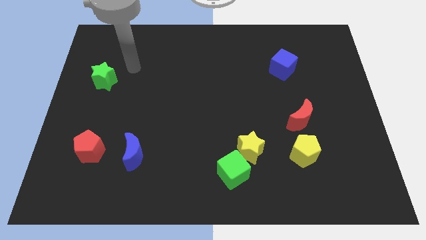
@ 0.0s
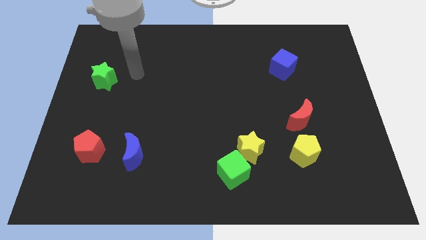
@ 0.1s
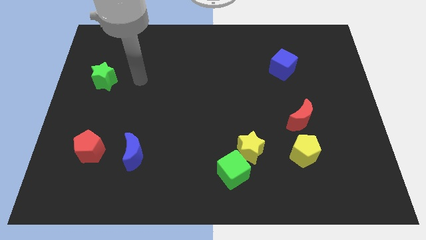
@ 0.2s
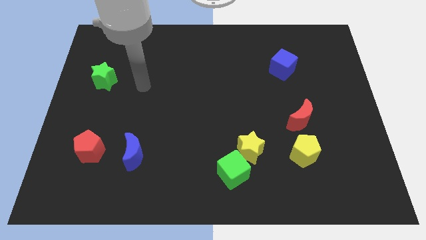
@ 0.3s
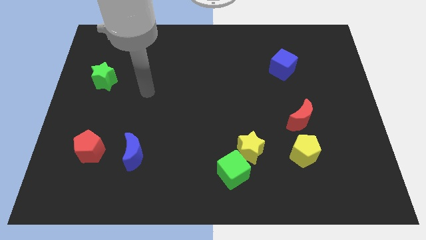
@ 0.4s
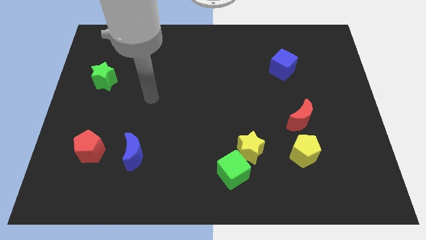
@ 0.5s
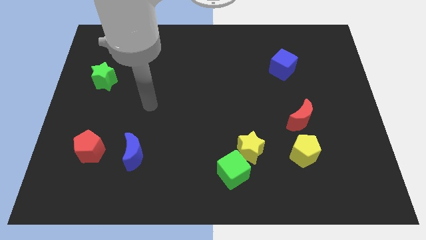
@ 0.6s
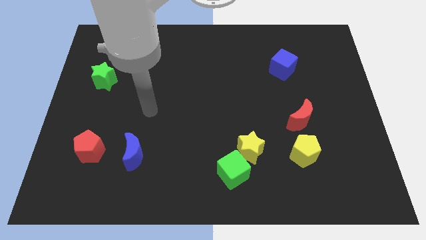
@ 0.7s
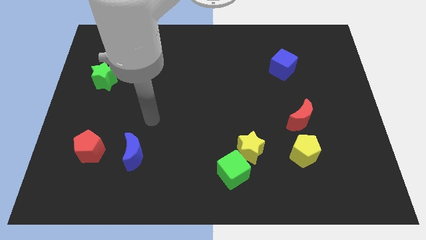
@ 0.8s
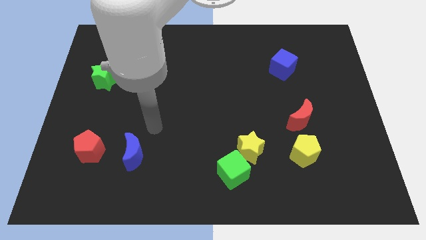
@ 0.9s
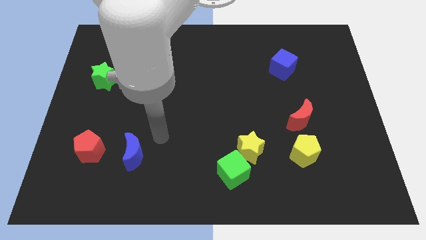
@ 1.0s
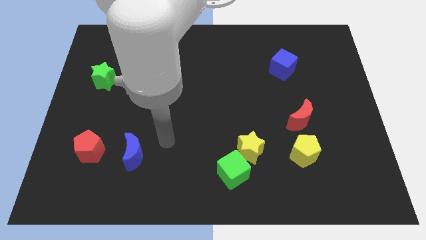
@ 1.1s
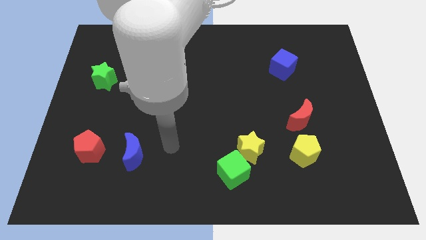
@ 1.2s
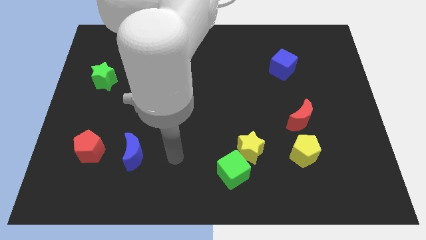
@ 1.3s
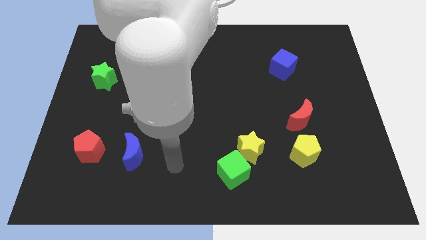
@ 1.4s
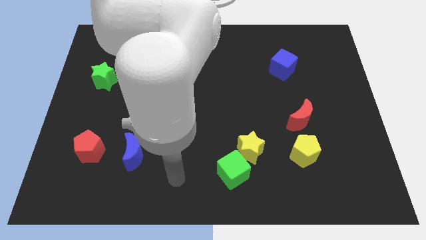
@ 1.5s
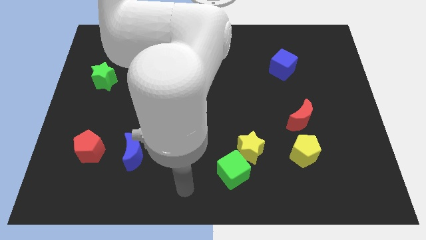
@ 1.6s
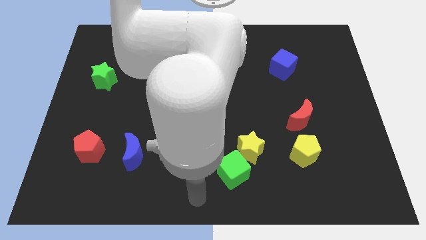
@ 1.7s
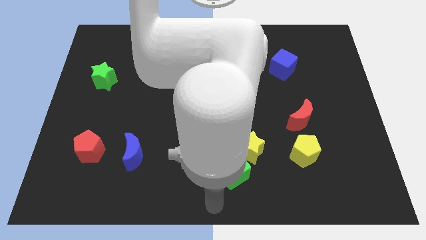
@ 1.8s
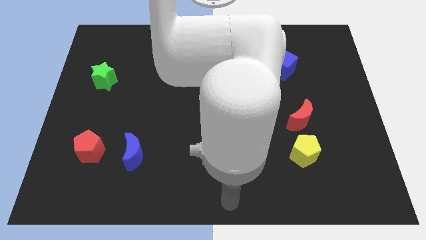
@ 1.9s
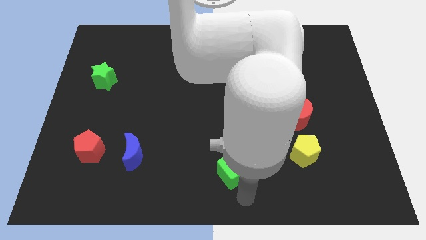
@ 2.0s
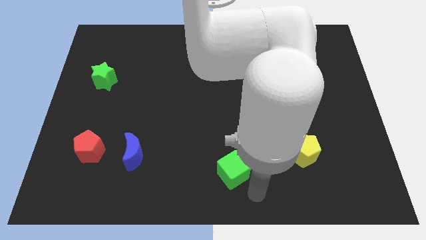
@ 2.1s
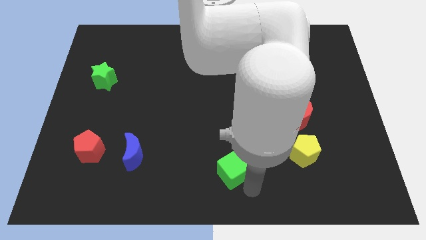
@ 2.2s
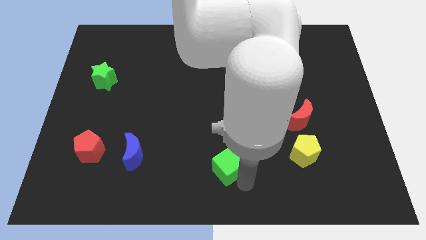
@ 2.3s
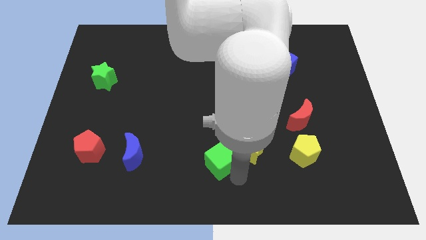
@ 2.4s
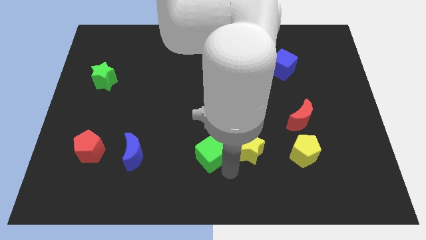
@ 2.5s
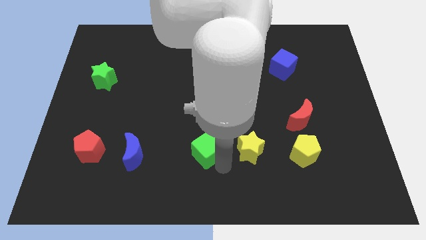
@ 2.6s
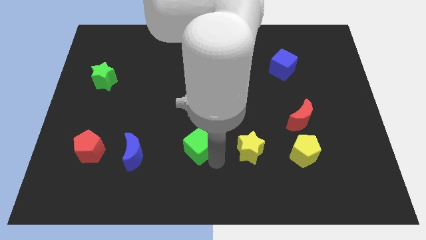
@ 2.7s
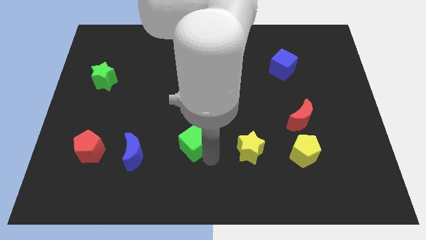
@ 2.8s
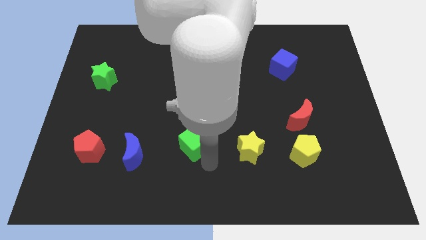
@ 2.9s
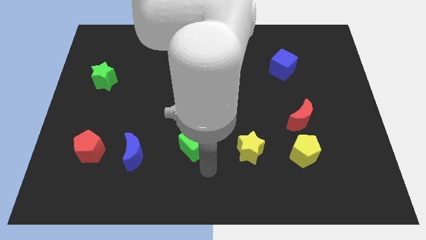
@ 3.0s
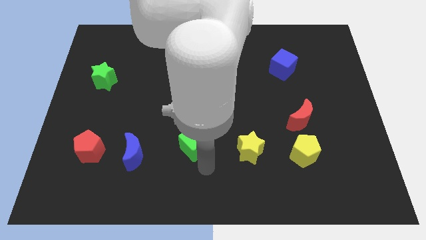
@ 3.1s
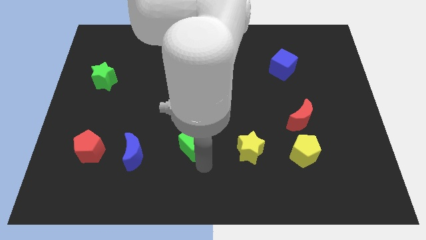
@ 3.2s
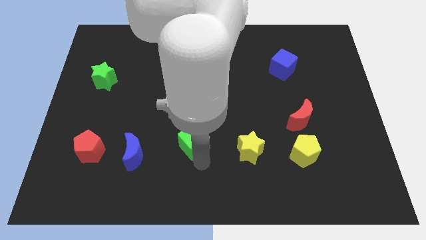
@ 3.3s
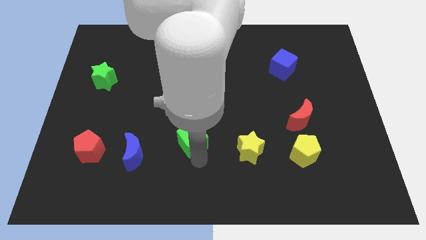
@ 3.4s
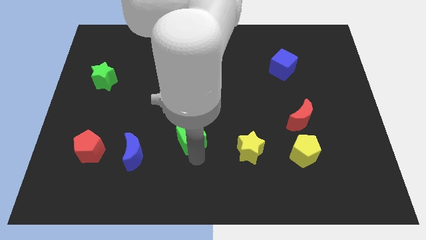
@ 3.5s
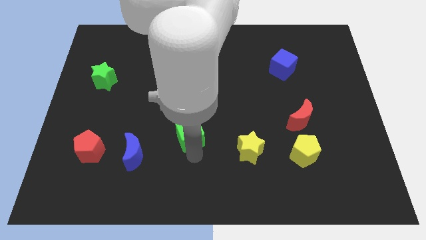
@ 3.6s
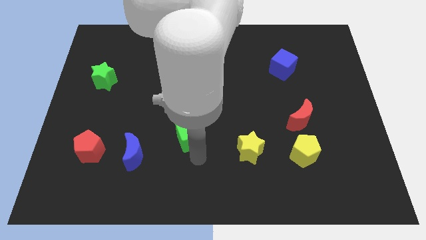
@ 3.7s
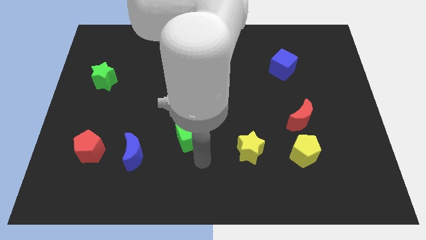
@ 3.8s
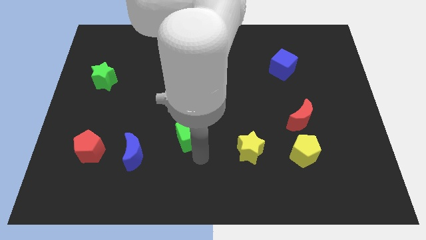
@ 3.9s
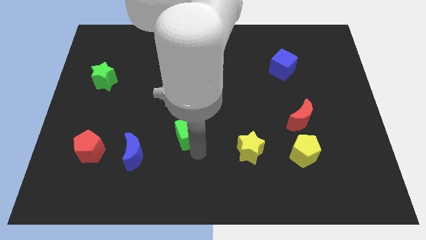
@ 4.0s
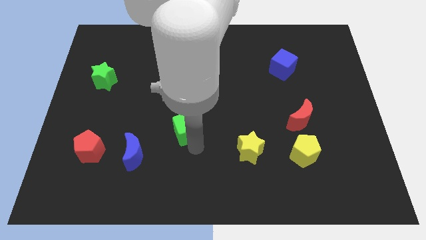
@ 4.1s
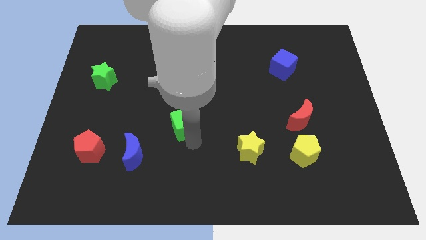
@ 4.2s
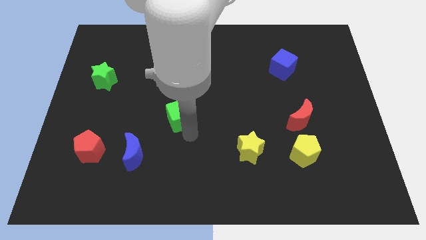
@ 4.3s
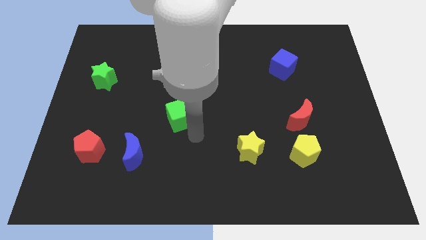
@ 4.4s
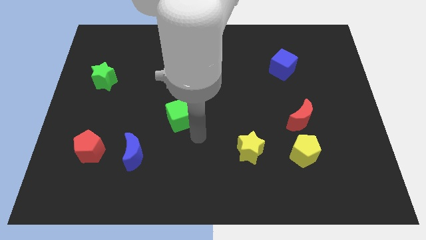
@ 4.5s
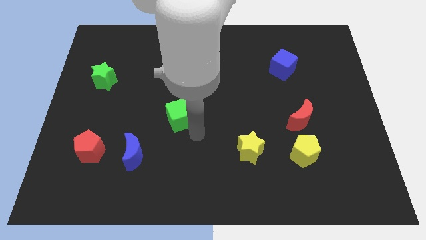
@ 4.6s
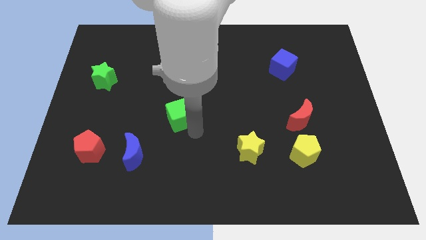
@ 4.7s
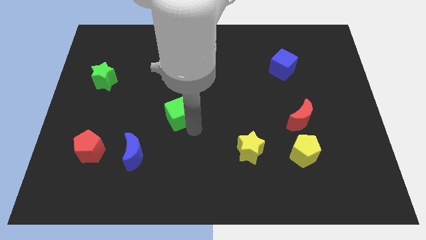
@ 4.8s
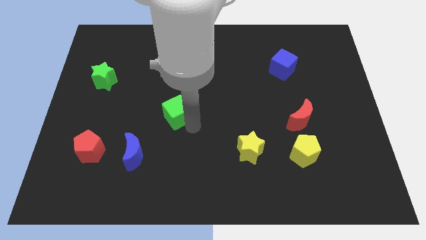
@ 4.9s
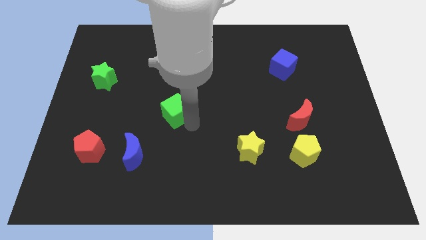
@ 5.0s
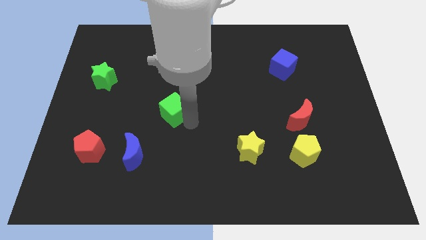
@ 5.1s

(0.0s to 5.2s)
push the green cube up and then to the left

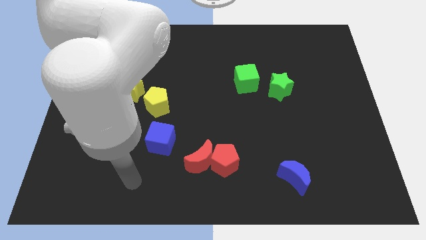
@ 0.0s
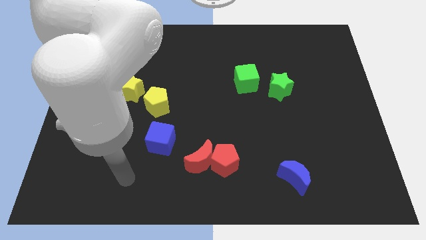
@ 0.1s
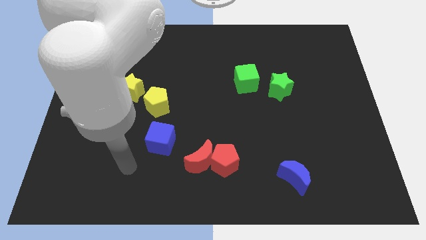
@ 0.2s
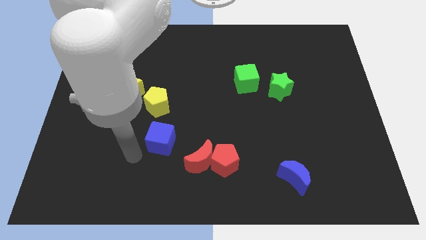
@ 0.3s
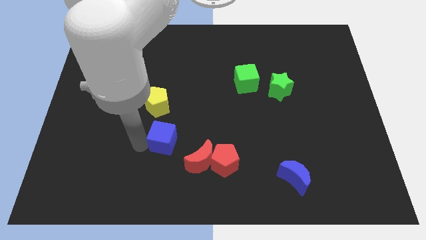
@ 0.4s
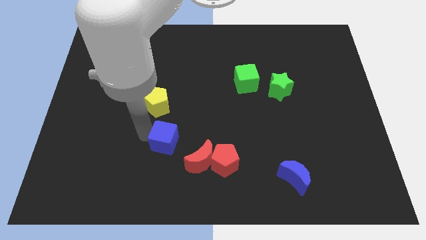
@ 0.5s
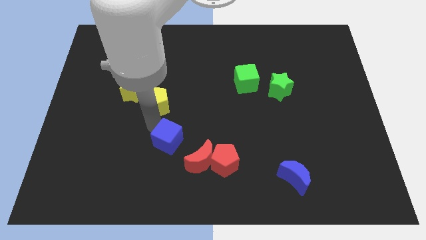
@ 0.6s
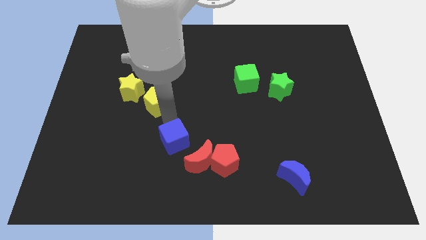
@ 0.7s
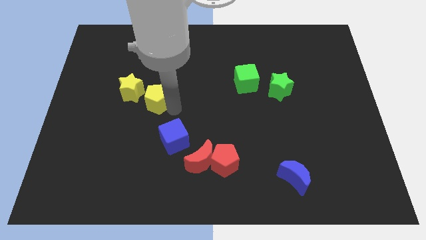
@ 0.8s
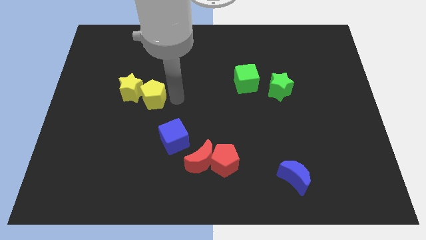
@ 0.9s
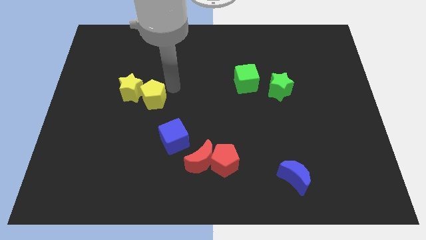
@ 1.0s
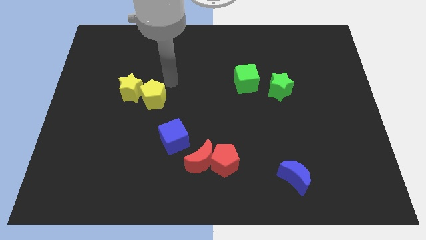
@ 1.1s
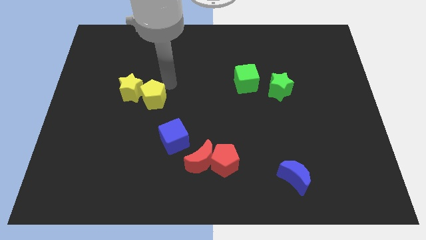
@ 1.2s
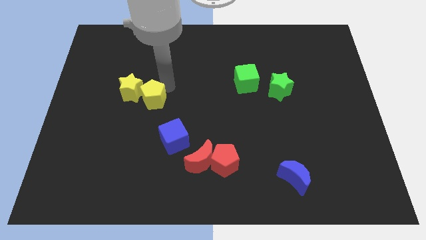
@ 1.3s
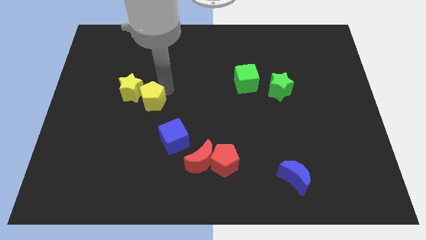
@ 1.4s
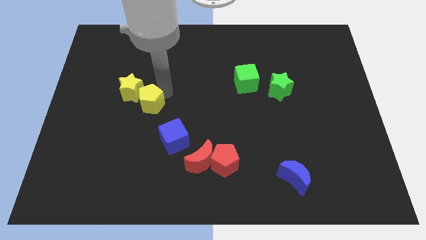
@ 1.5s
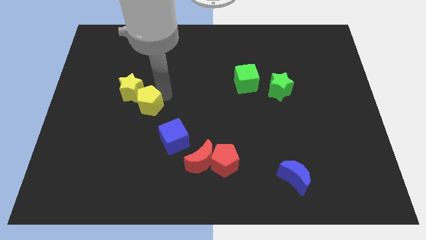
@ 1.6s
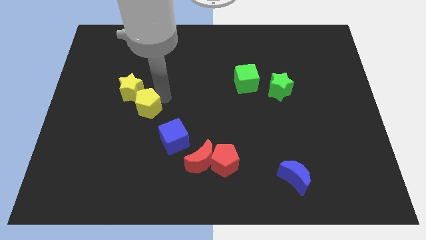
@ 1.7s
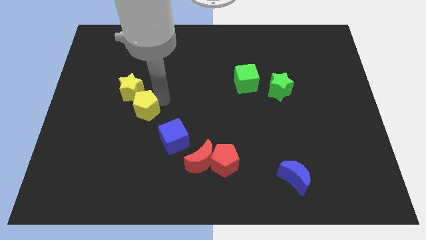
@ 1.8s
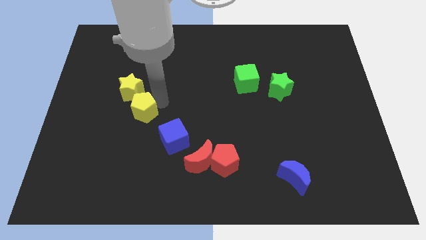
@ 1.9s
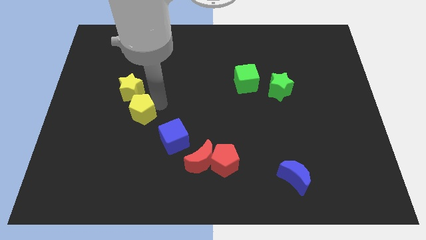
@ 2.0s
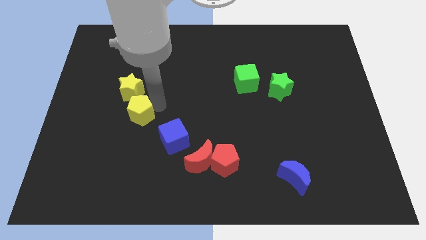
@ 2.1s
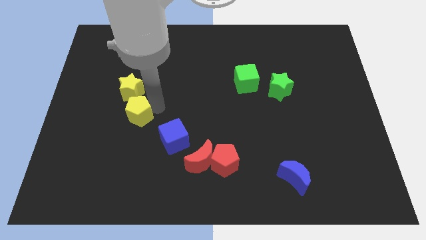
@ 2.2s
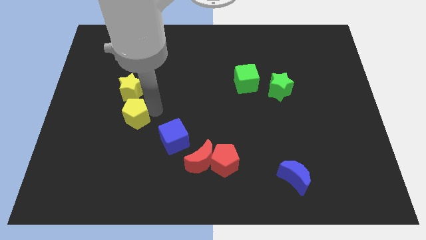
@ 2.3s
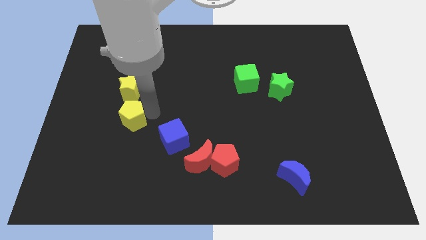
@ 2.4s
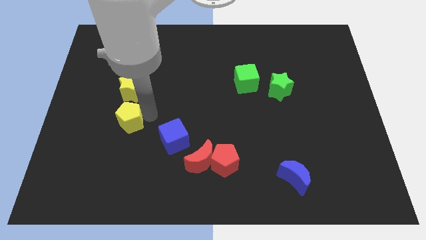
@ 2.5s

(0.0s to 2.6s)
slightly slide the yellow pentagon diagonally down and to the left

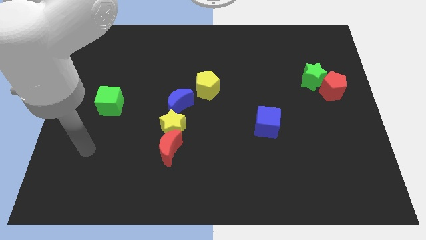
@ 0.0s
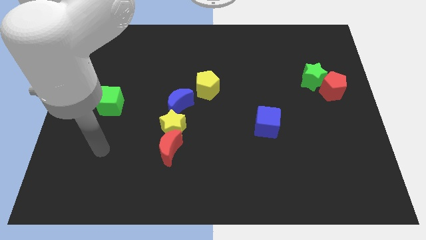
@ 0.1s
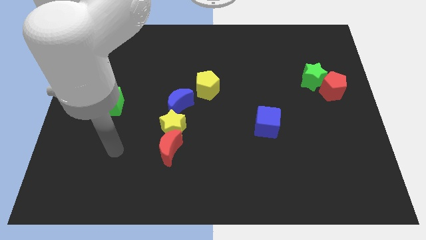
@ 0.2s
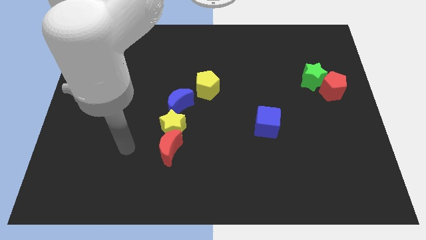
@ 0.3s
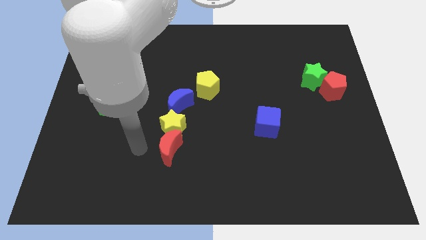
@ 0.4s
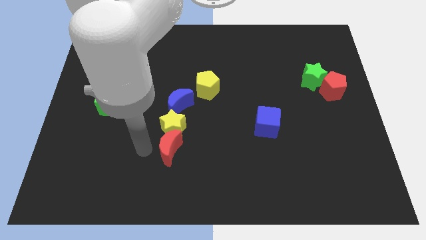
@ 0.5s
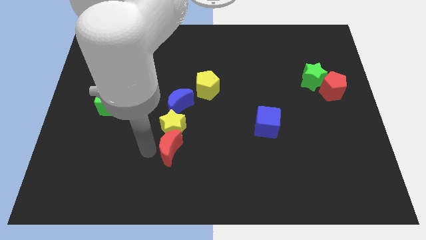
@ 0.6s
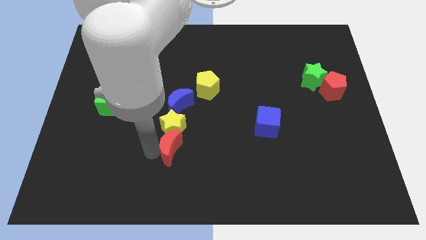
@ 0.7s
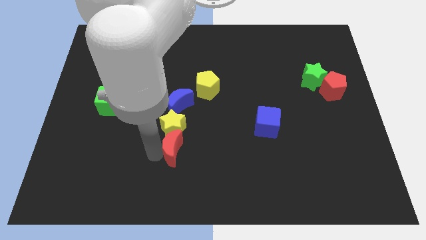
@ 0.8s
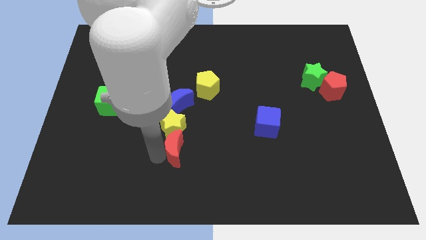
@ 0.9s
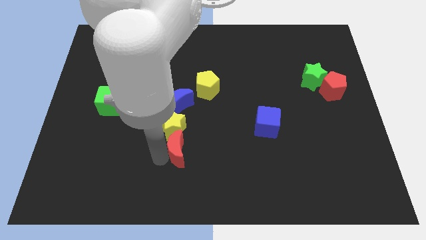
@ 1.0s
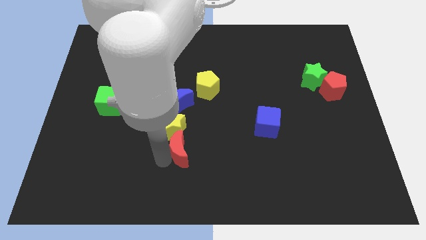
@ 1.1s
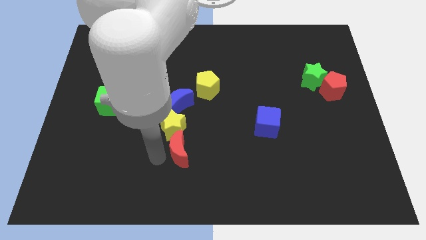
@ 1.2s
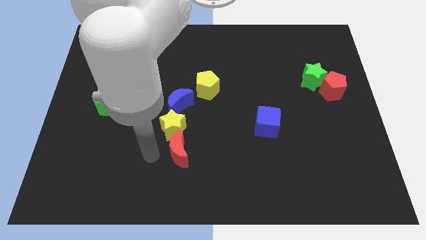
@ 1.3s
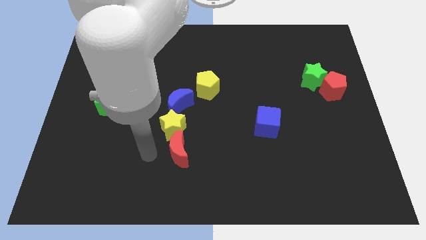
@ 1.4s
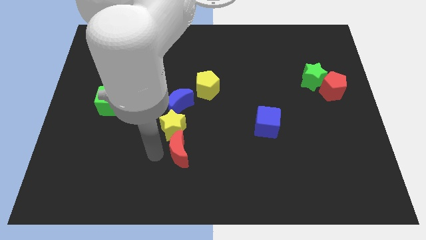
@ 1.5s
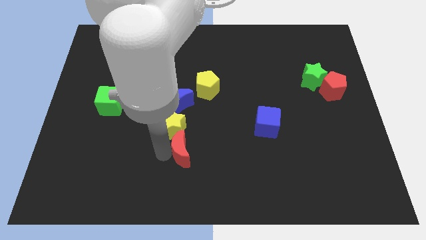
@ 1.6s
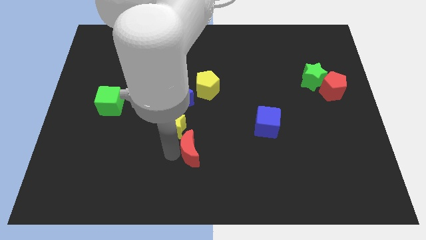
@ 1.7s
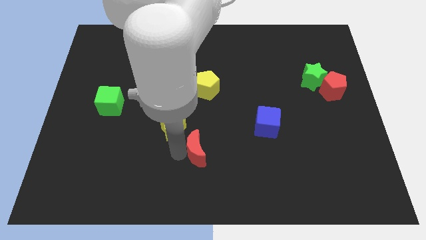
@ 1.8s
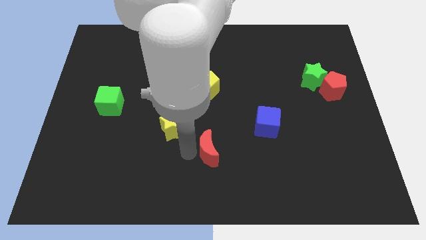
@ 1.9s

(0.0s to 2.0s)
push the red moon to the right a bit
